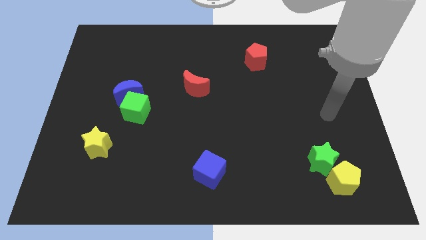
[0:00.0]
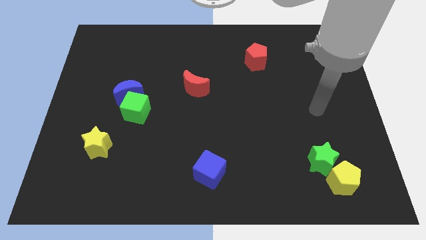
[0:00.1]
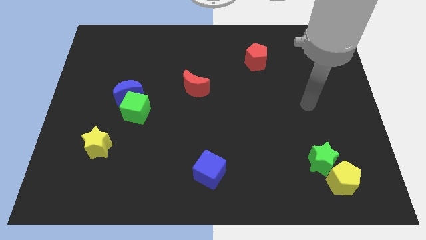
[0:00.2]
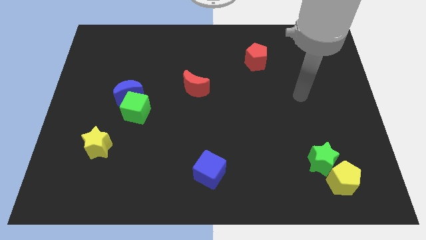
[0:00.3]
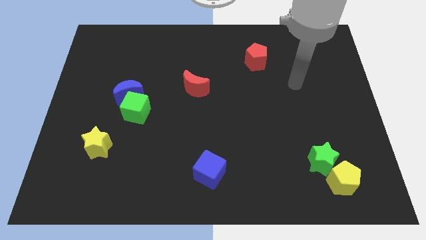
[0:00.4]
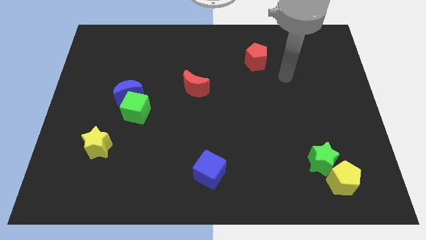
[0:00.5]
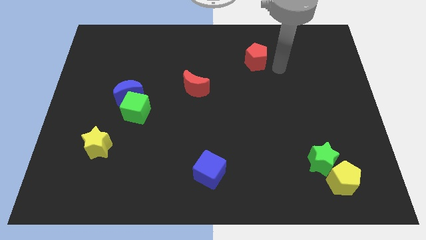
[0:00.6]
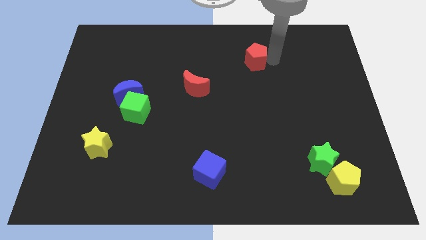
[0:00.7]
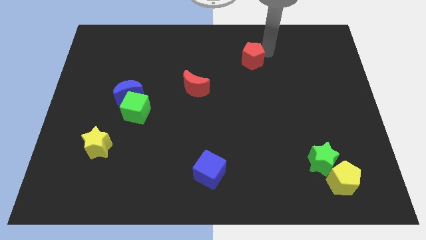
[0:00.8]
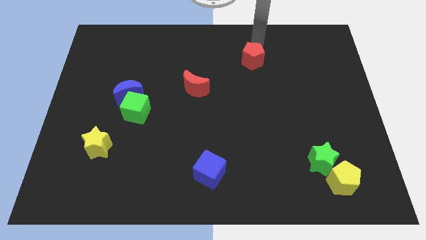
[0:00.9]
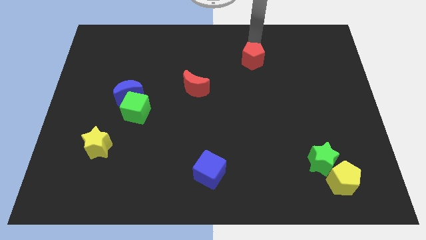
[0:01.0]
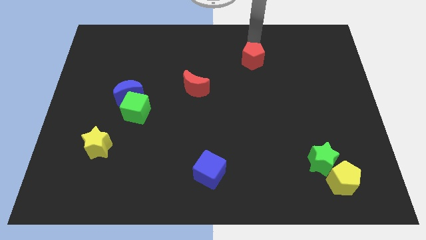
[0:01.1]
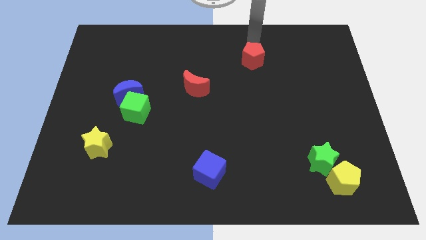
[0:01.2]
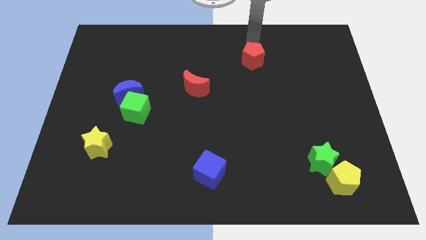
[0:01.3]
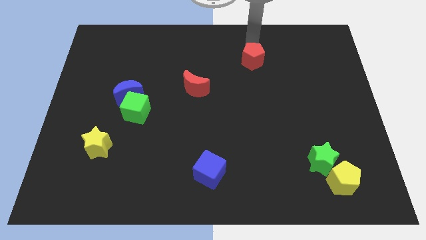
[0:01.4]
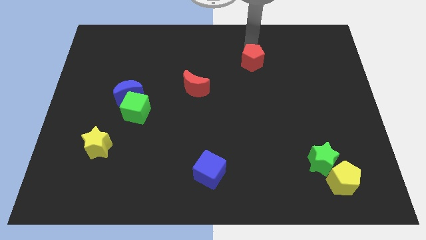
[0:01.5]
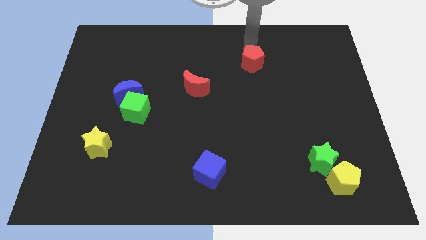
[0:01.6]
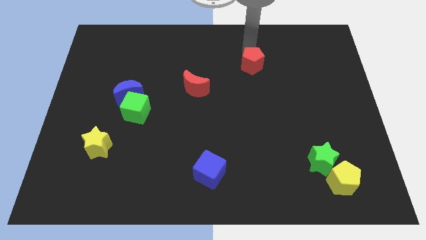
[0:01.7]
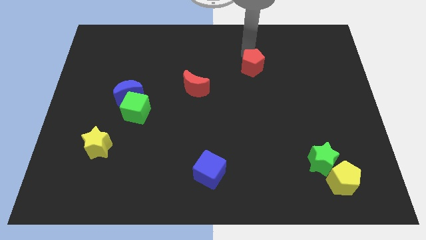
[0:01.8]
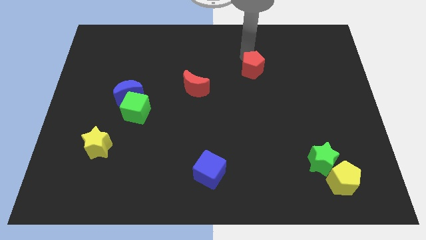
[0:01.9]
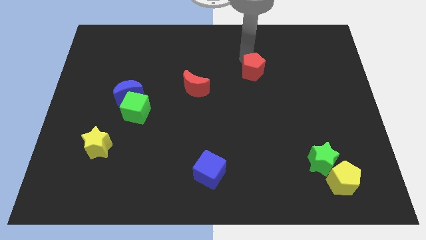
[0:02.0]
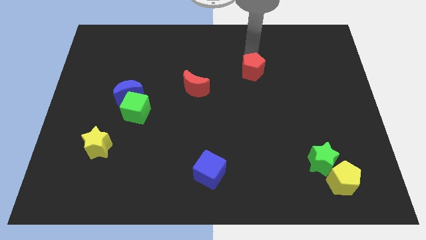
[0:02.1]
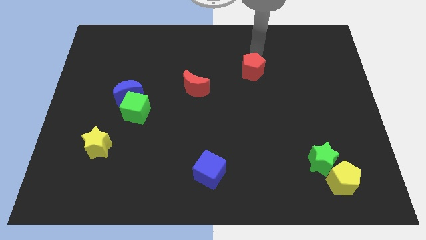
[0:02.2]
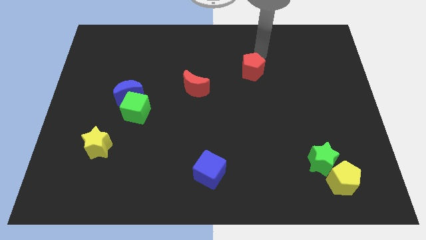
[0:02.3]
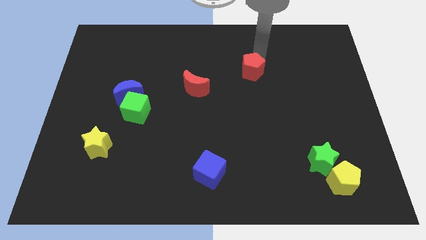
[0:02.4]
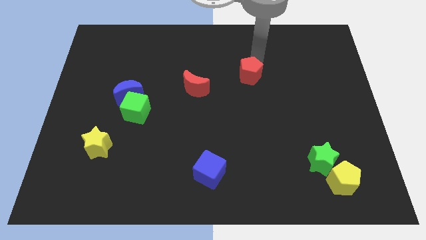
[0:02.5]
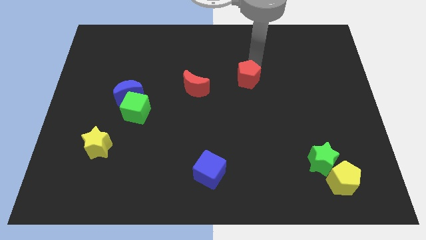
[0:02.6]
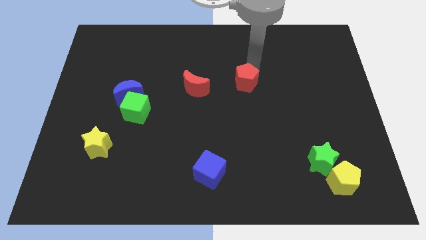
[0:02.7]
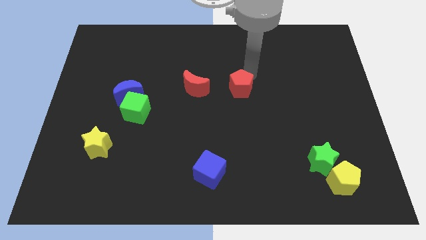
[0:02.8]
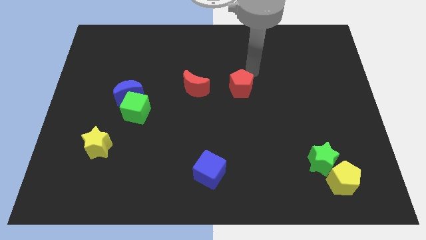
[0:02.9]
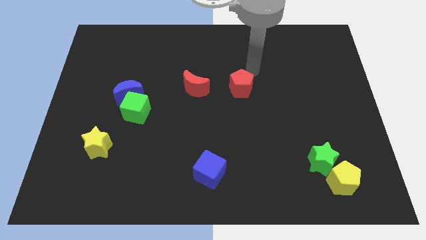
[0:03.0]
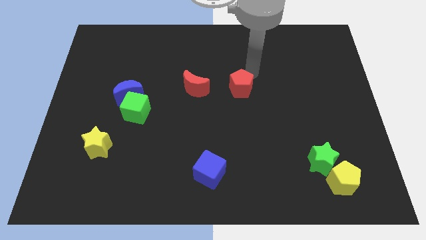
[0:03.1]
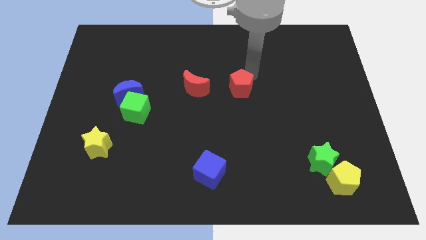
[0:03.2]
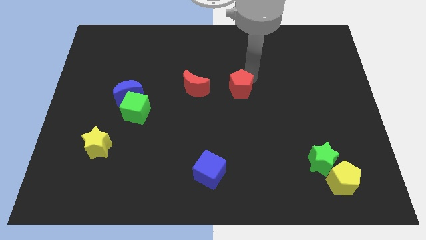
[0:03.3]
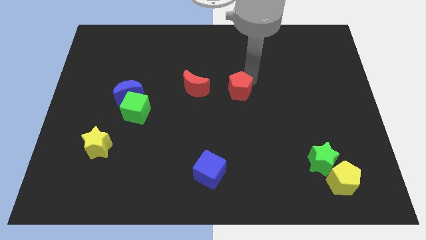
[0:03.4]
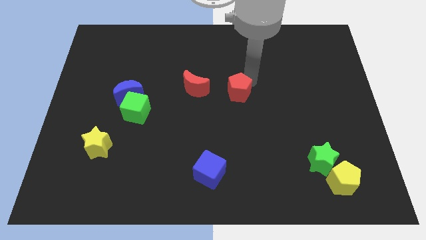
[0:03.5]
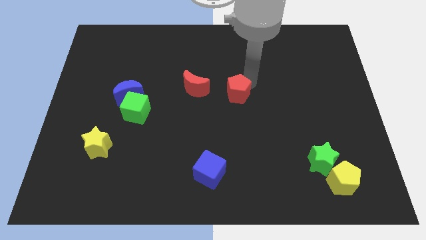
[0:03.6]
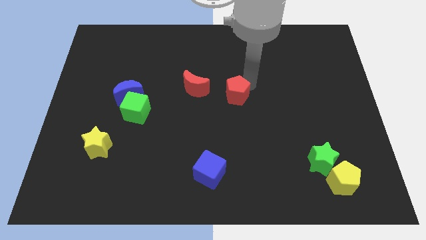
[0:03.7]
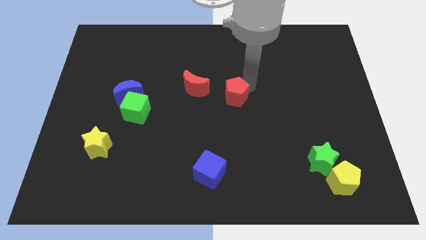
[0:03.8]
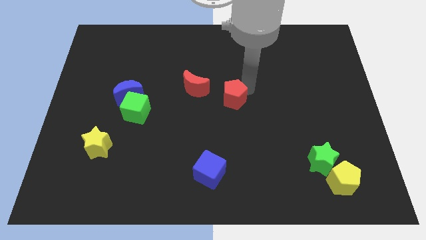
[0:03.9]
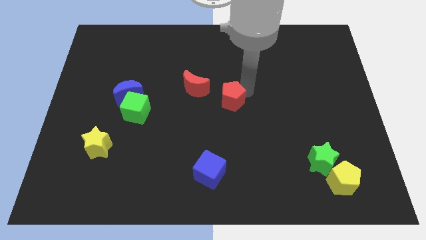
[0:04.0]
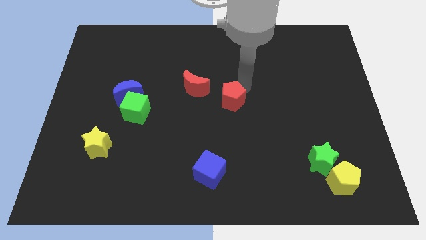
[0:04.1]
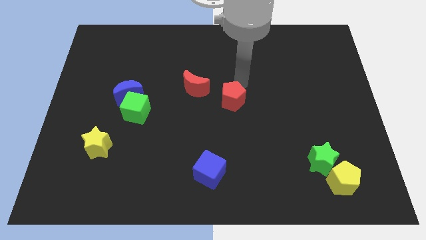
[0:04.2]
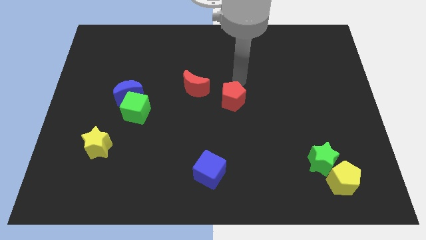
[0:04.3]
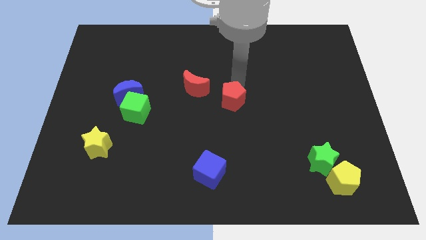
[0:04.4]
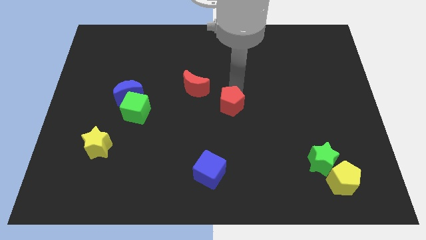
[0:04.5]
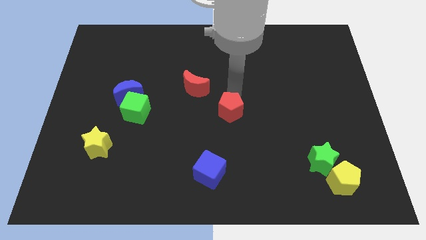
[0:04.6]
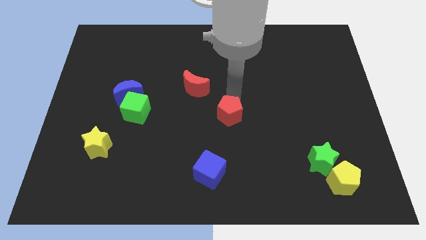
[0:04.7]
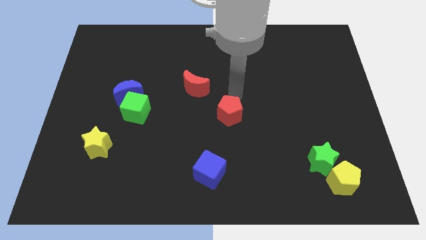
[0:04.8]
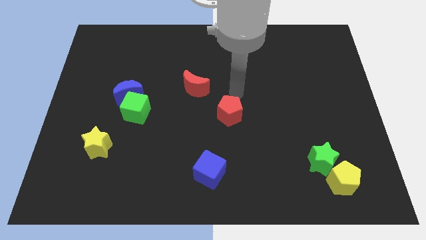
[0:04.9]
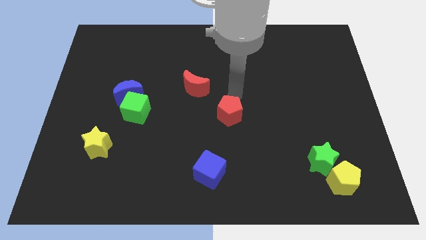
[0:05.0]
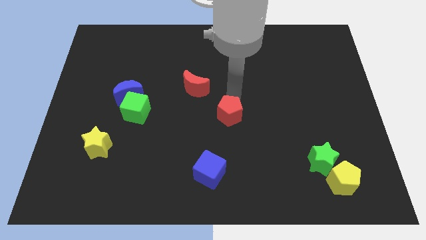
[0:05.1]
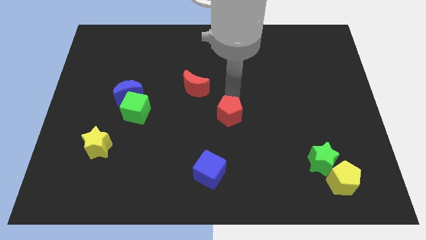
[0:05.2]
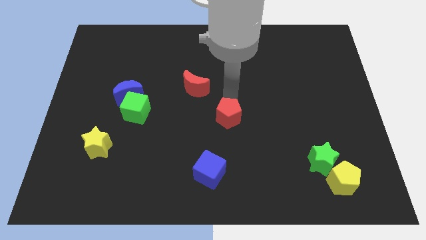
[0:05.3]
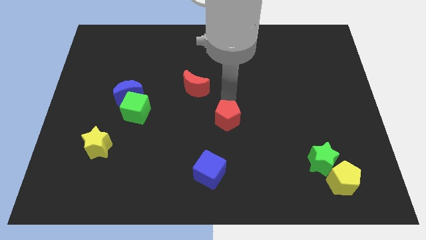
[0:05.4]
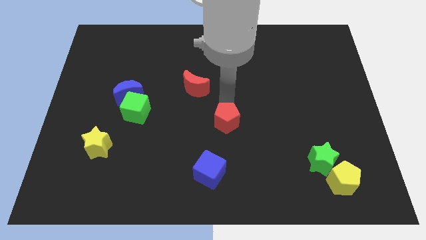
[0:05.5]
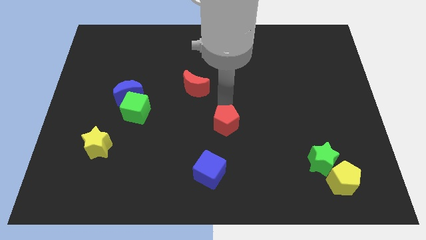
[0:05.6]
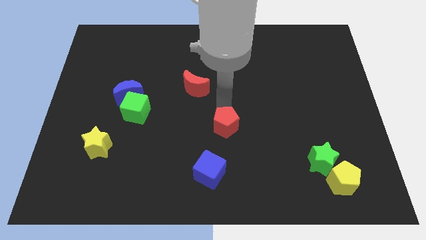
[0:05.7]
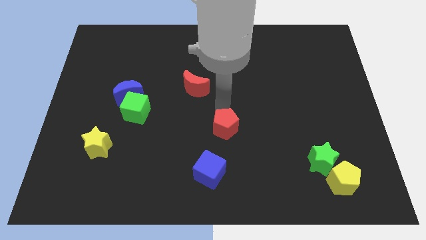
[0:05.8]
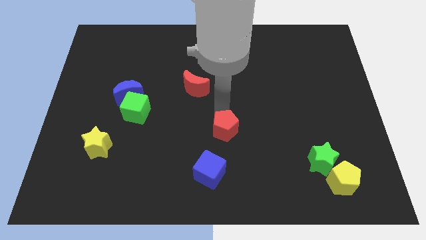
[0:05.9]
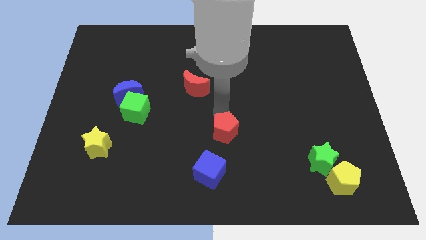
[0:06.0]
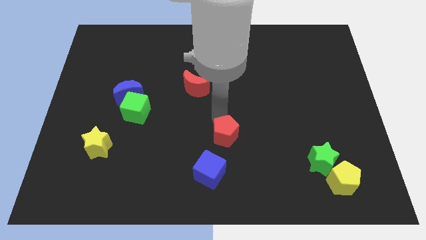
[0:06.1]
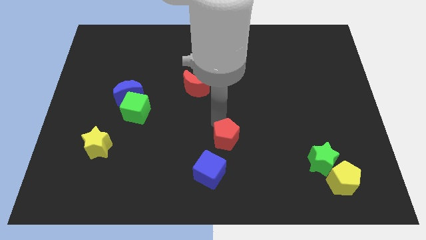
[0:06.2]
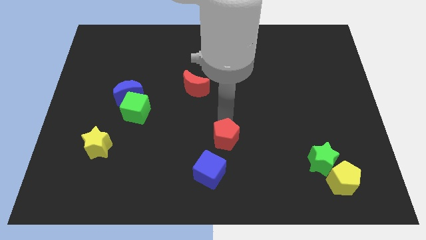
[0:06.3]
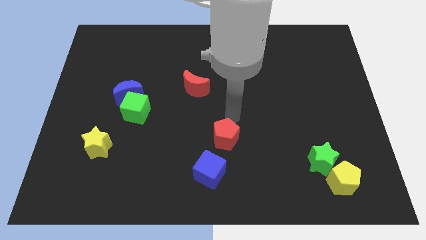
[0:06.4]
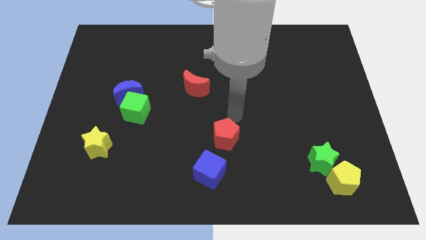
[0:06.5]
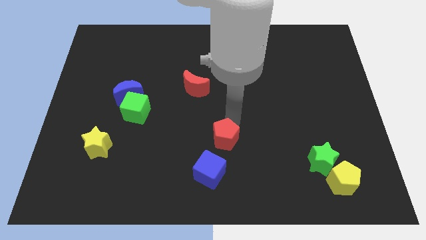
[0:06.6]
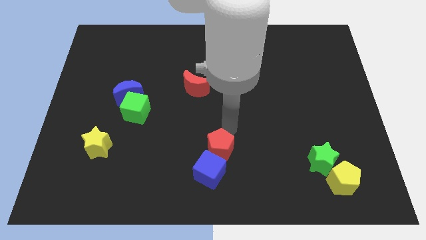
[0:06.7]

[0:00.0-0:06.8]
move the red pentagon close to the blue cube

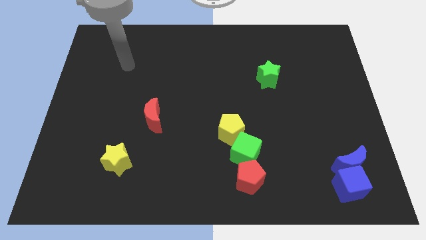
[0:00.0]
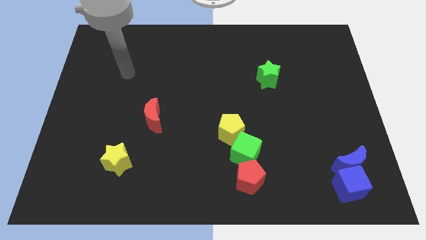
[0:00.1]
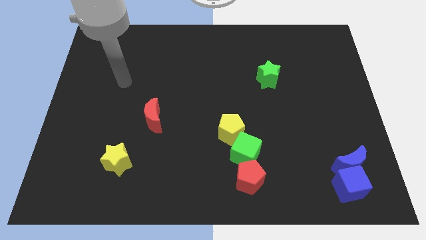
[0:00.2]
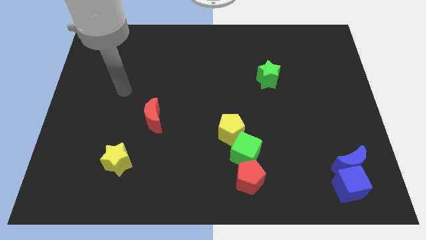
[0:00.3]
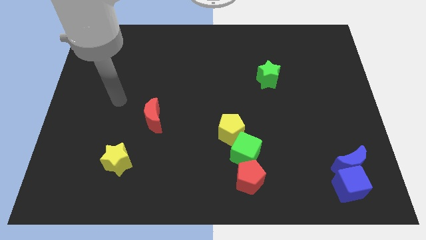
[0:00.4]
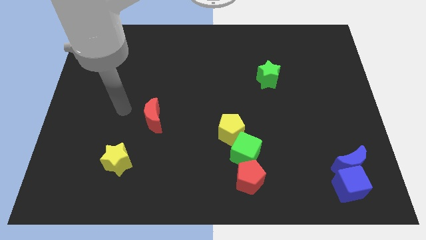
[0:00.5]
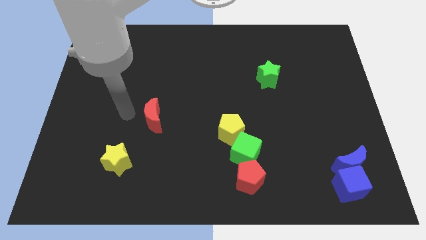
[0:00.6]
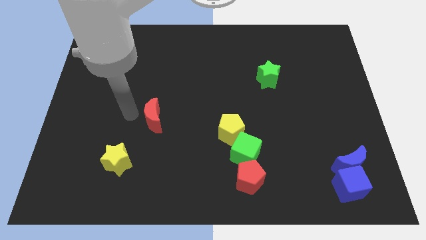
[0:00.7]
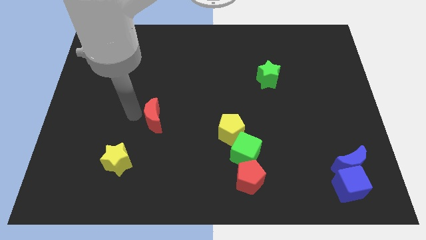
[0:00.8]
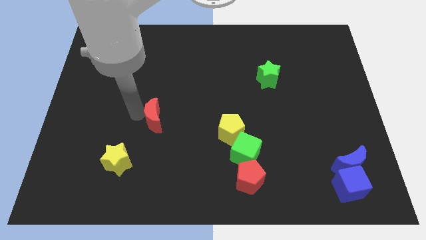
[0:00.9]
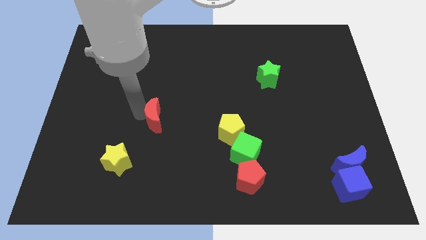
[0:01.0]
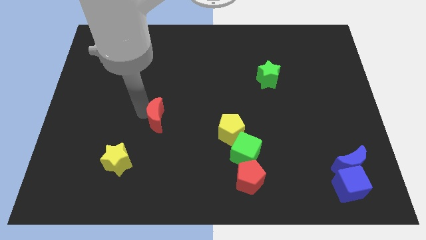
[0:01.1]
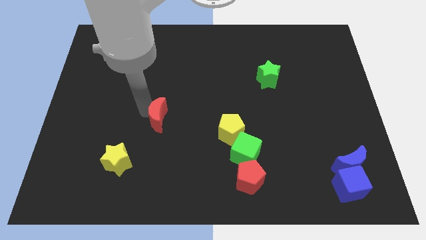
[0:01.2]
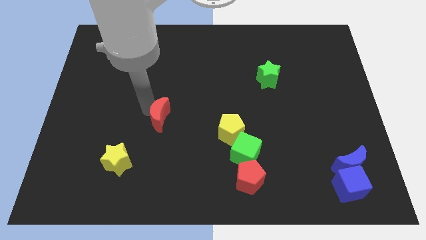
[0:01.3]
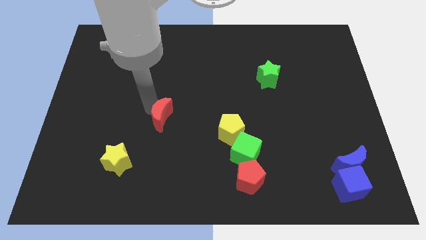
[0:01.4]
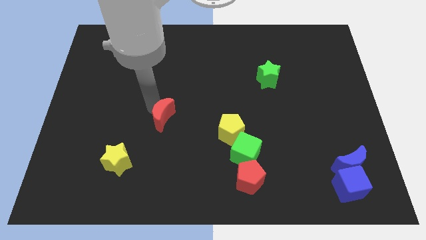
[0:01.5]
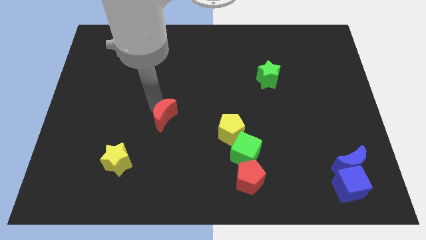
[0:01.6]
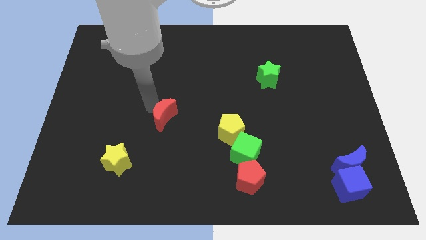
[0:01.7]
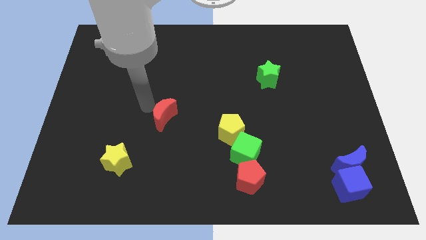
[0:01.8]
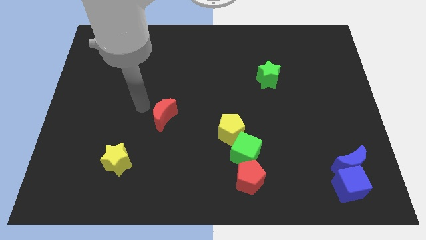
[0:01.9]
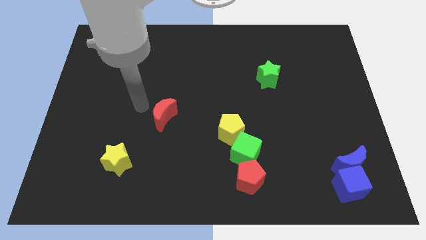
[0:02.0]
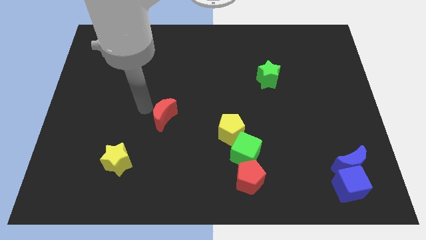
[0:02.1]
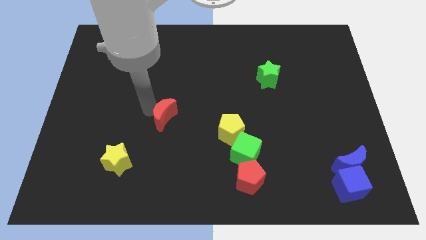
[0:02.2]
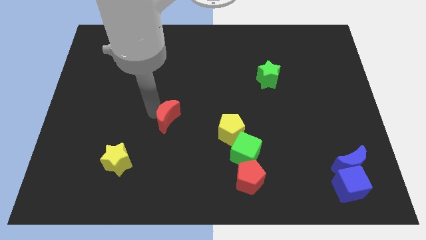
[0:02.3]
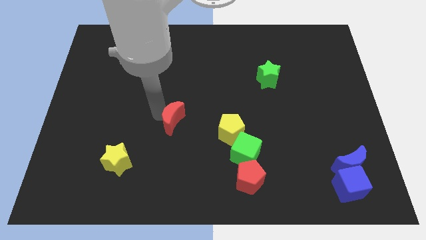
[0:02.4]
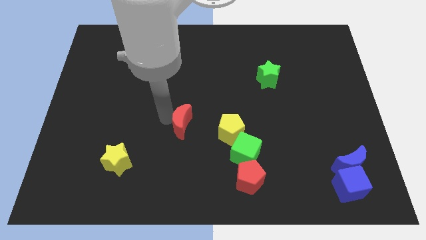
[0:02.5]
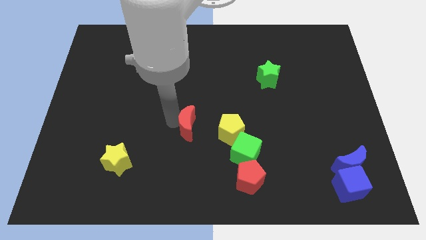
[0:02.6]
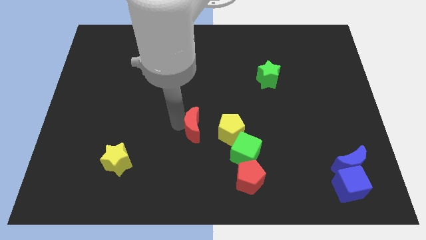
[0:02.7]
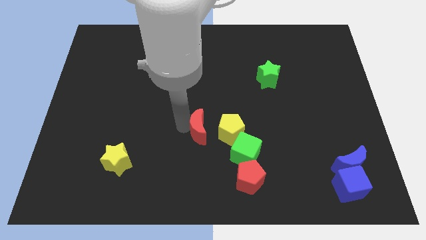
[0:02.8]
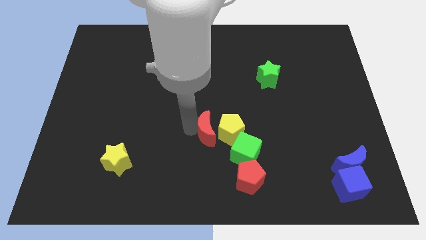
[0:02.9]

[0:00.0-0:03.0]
slide the red moon next to the yellow pentagon
